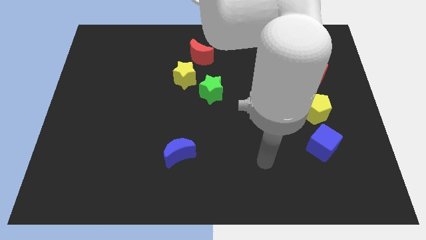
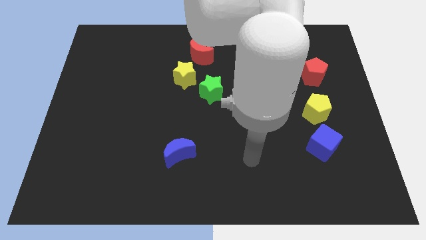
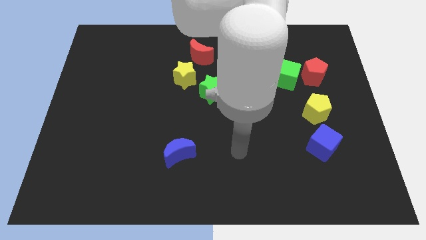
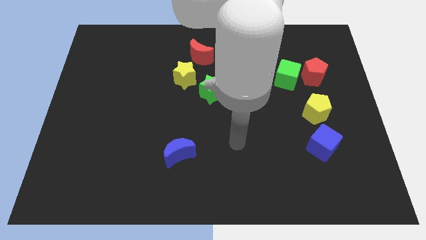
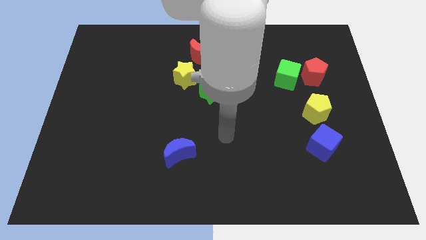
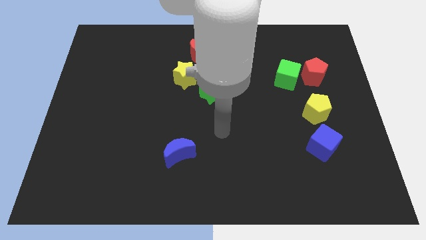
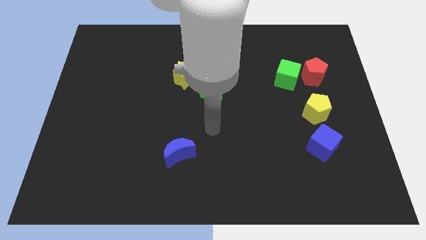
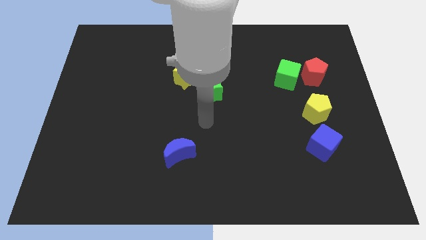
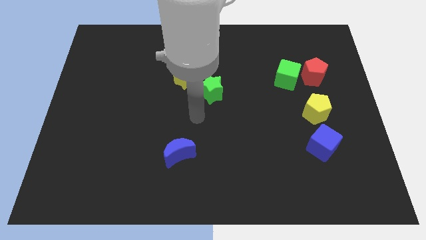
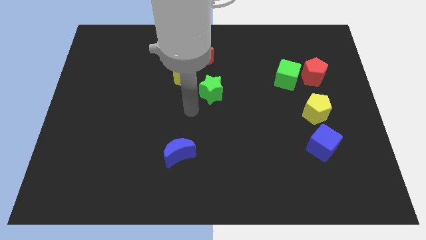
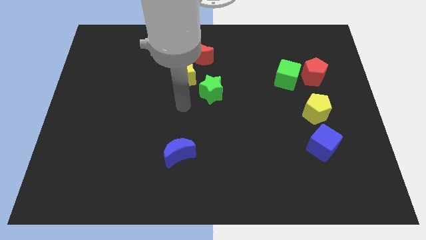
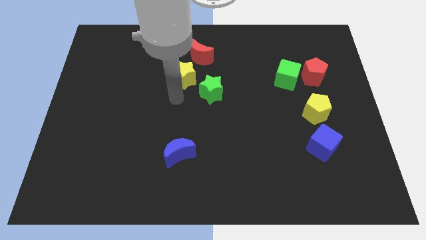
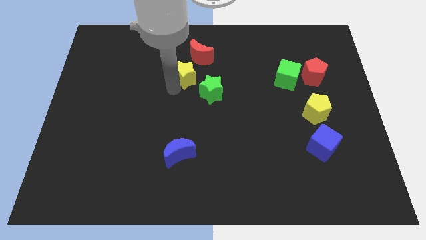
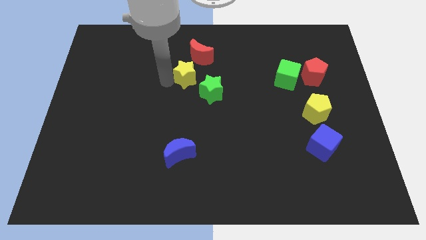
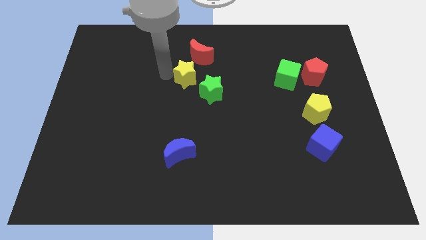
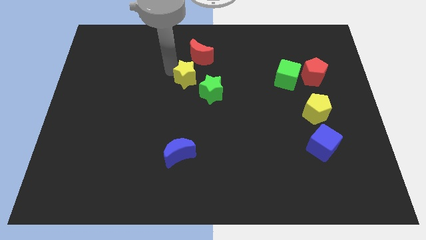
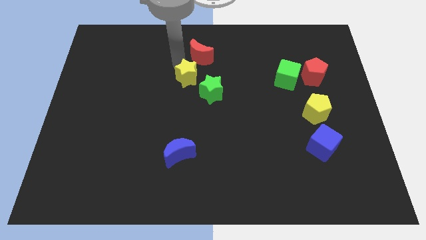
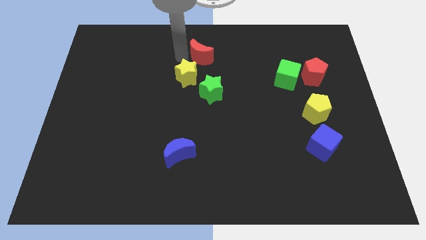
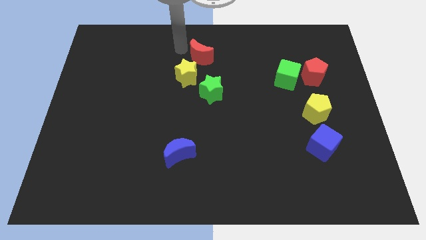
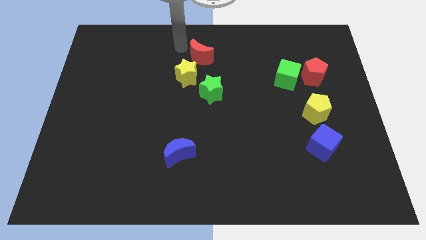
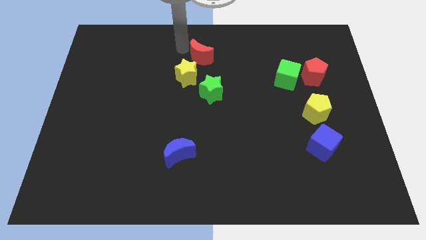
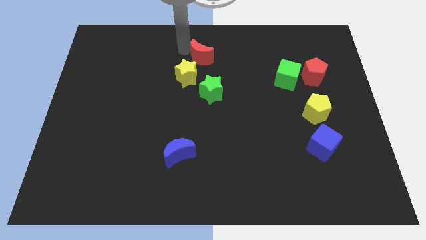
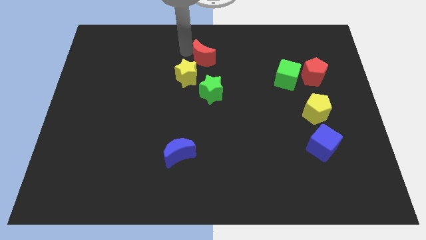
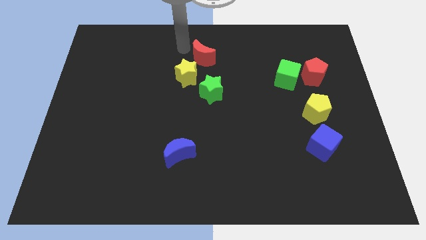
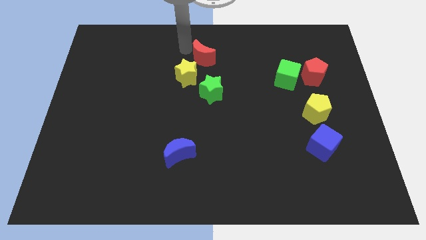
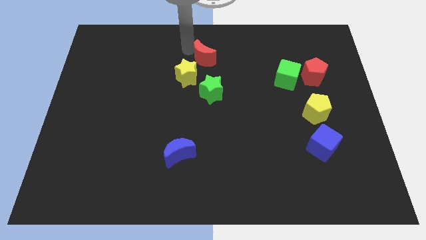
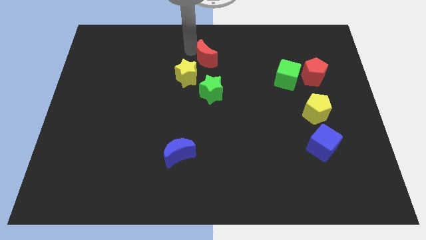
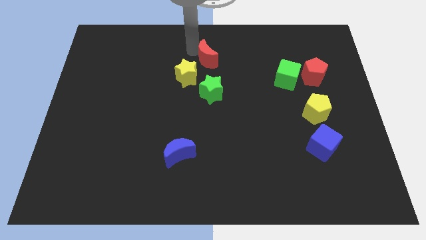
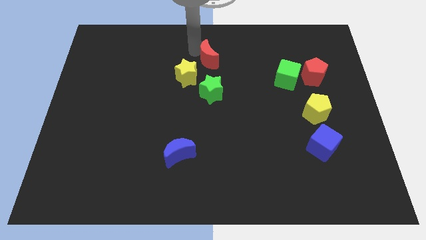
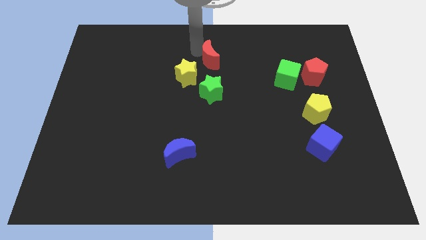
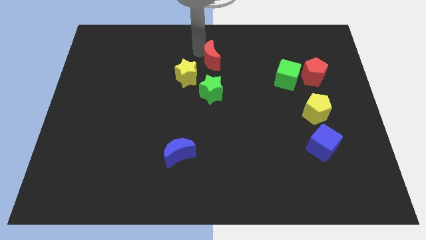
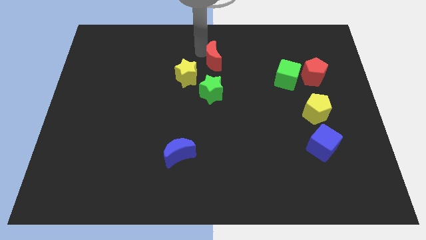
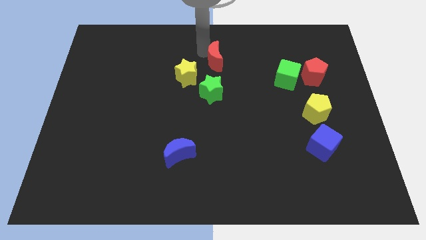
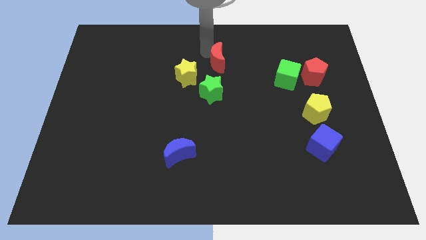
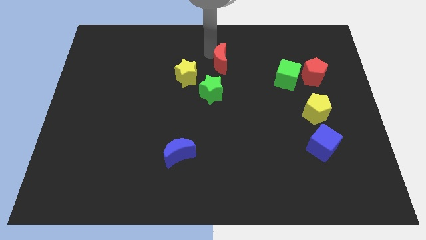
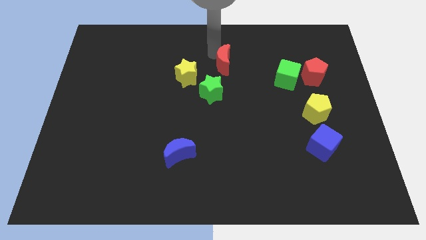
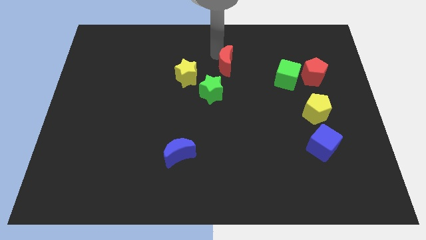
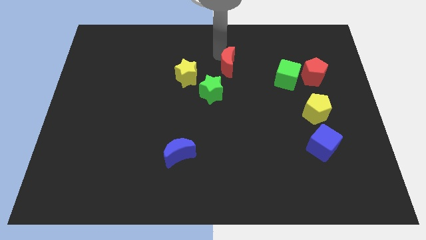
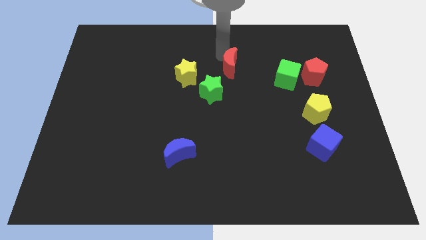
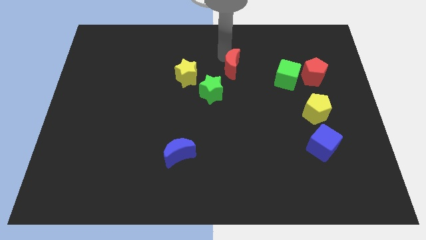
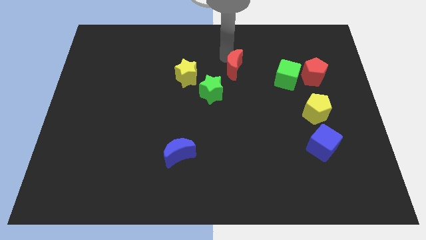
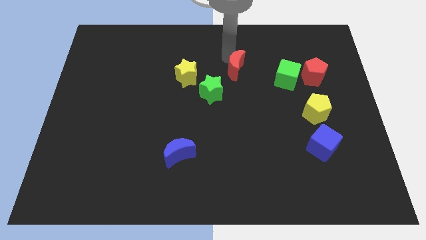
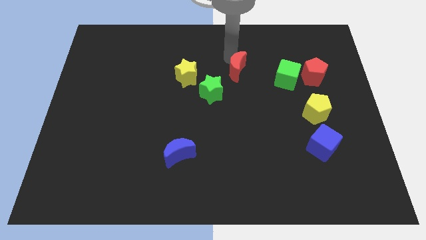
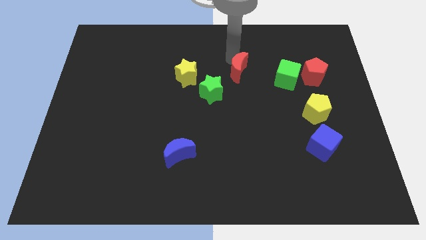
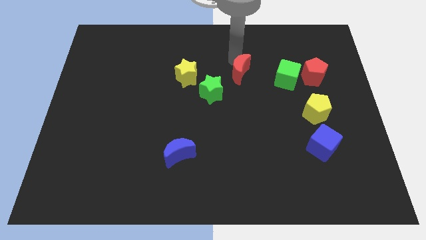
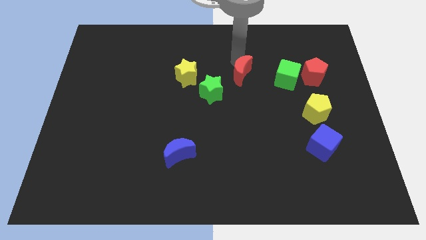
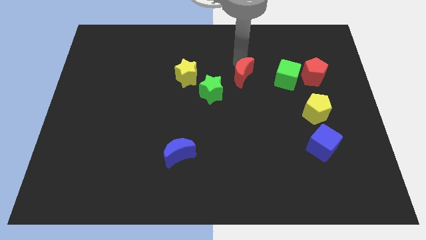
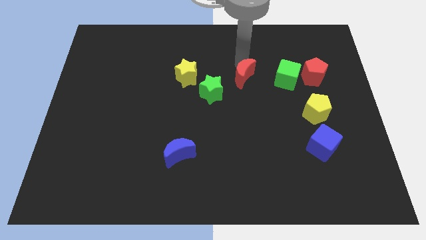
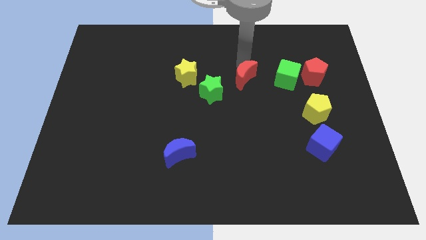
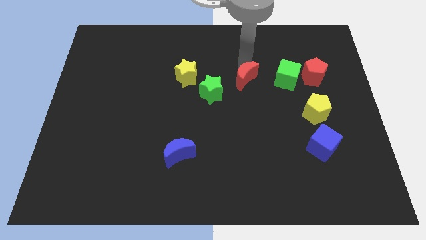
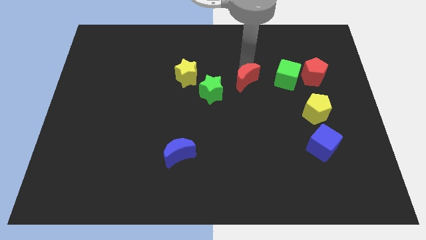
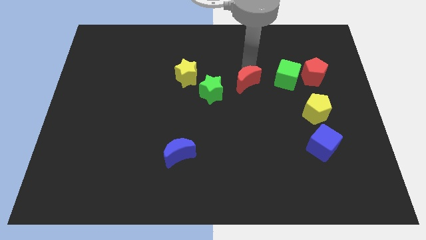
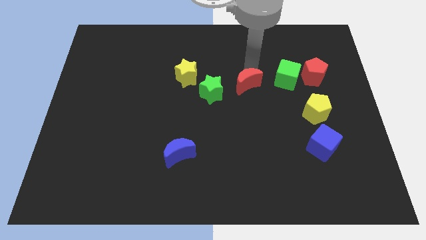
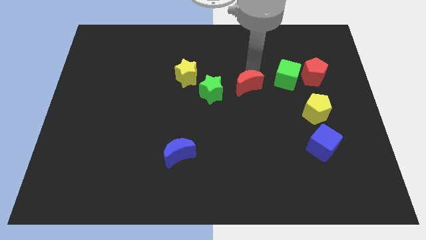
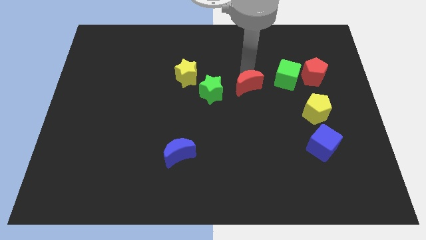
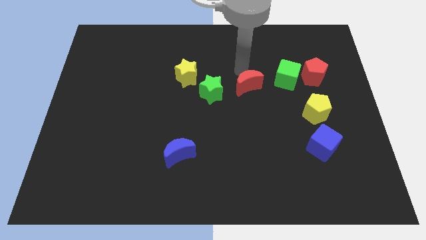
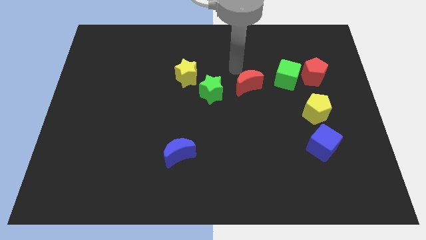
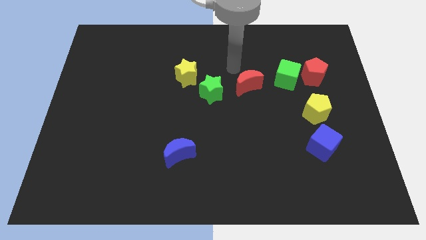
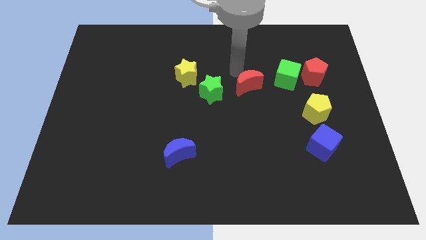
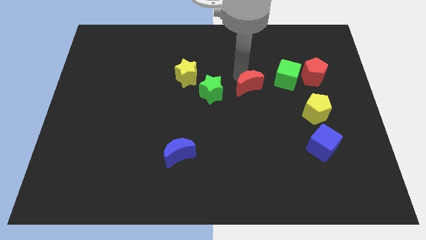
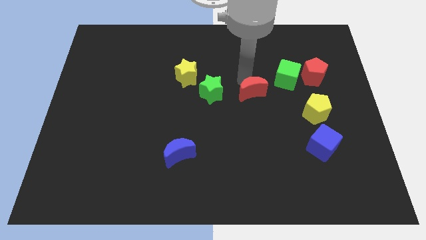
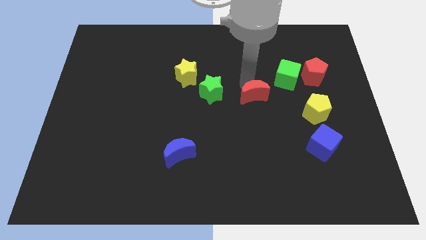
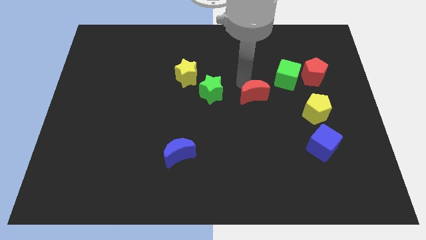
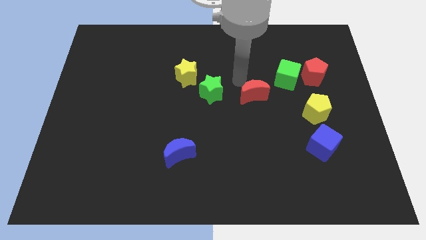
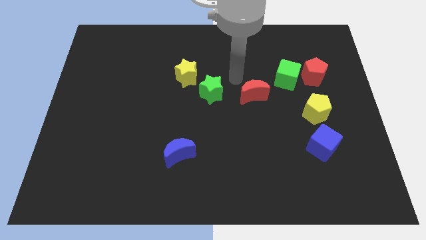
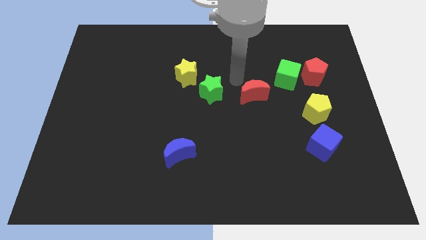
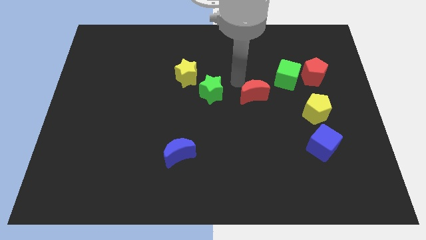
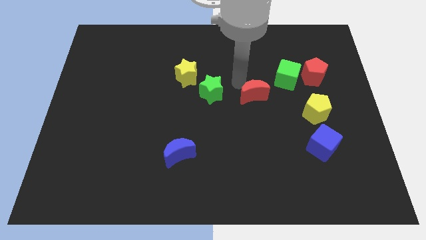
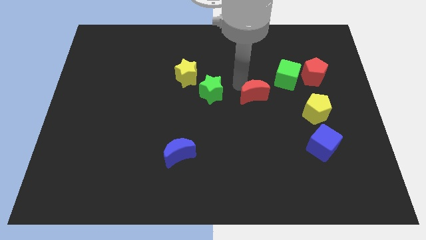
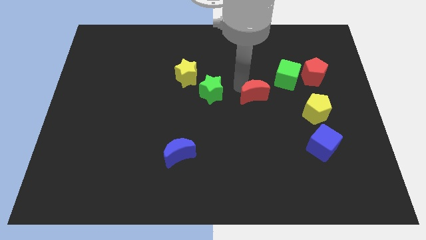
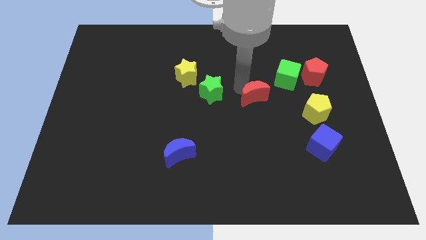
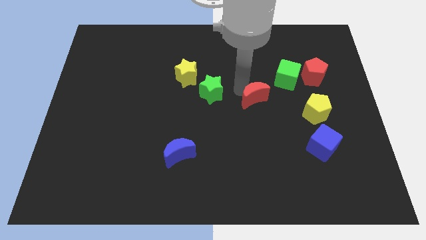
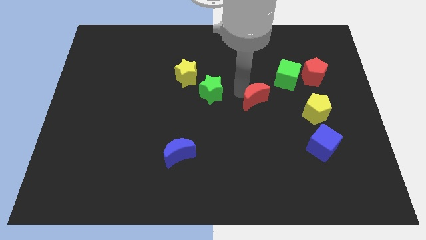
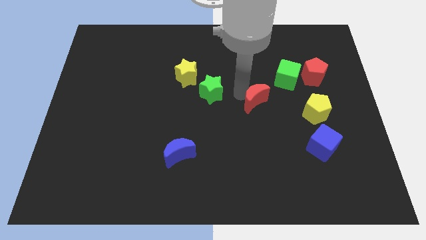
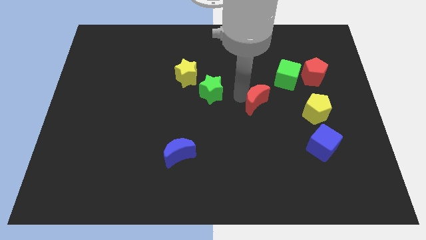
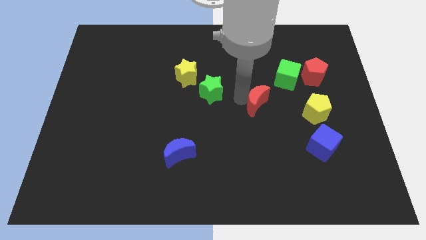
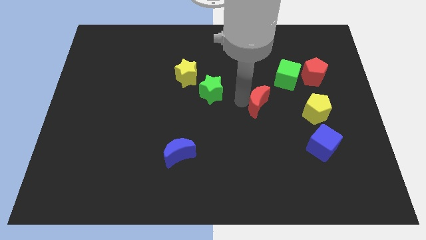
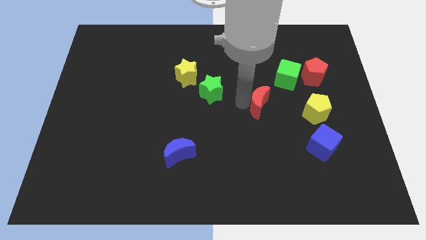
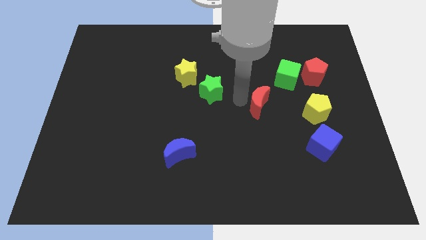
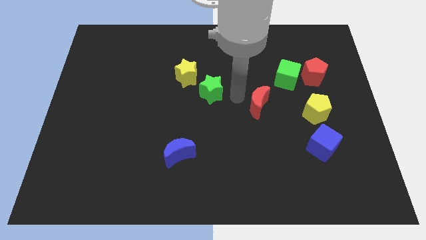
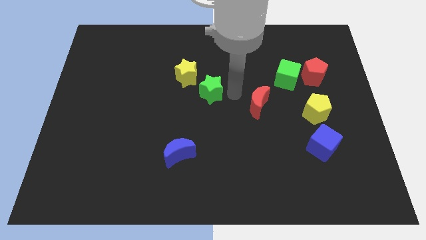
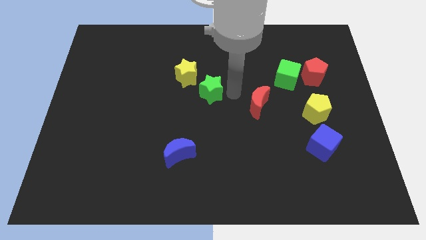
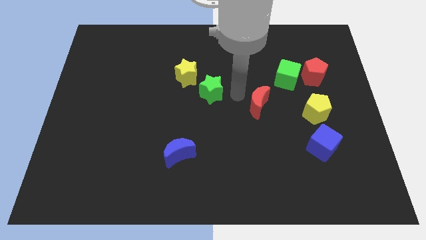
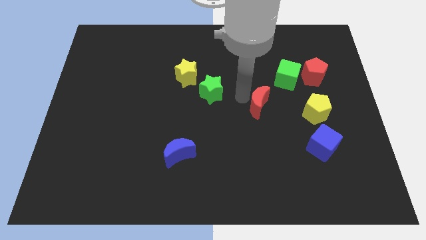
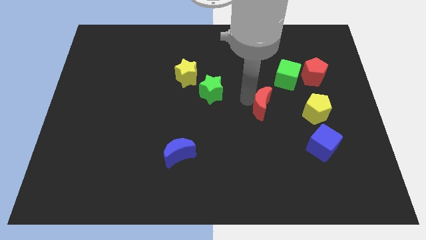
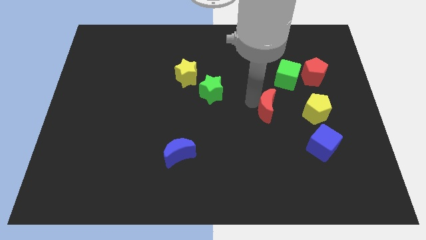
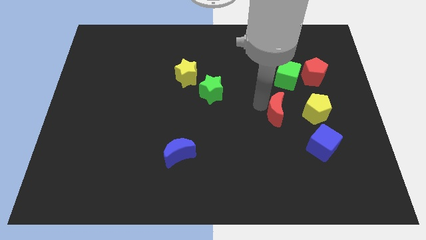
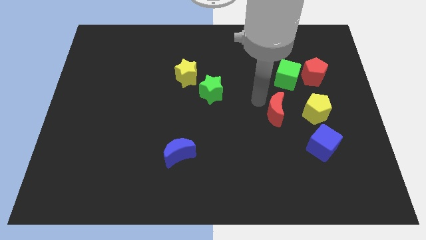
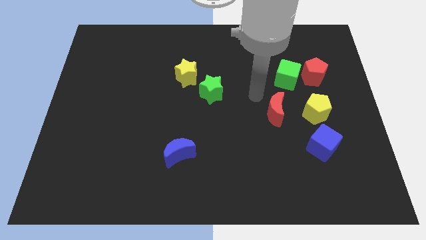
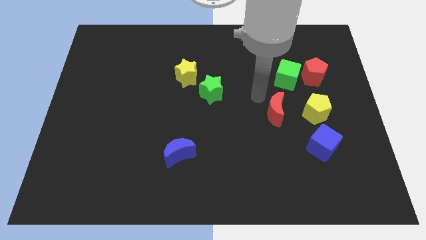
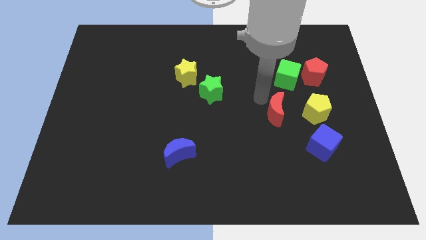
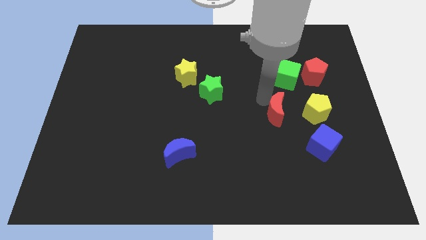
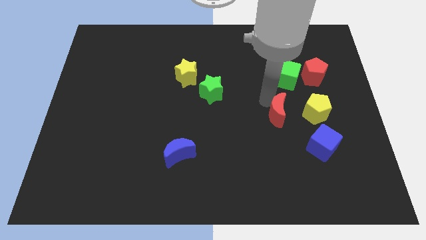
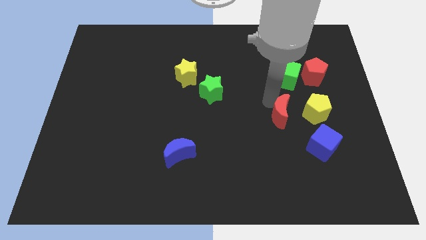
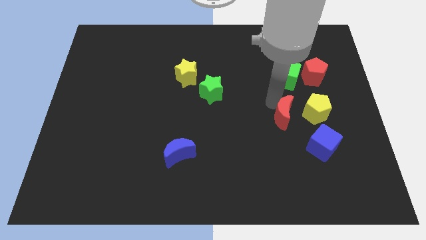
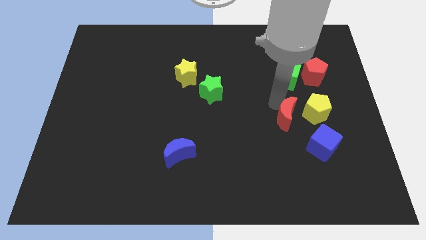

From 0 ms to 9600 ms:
move the red moon diagonally down and to the left of the yellow pentagon
